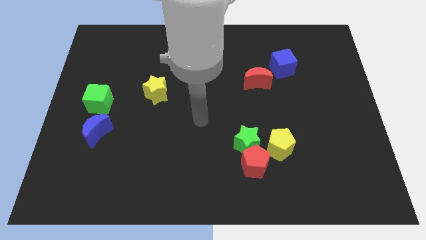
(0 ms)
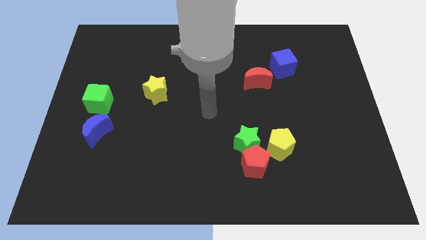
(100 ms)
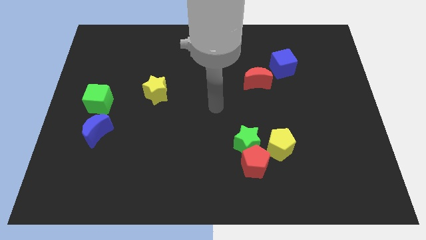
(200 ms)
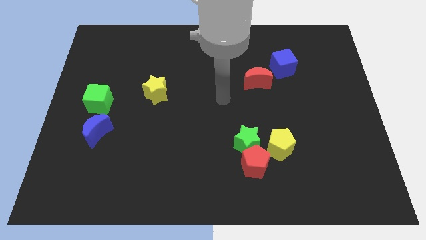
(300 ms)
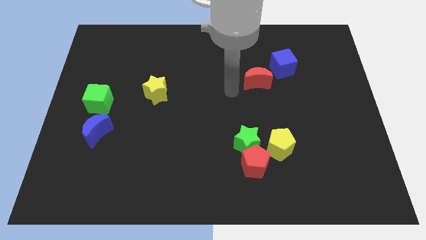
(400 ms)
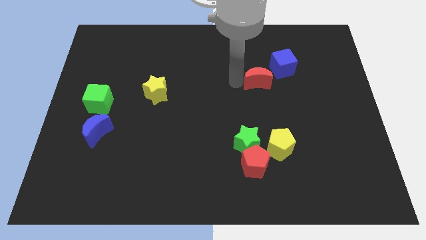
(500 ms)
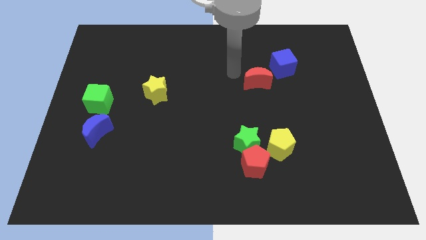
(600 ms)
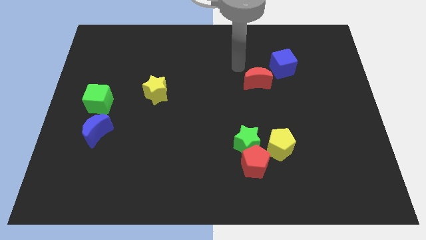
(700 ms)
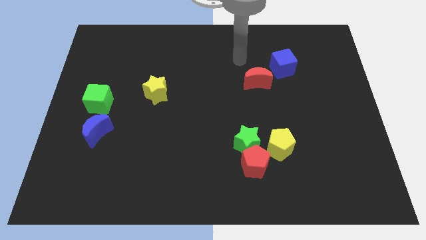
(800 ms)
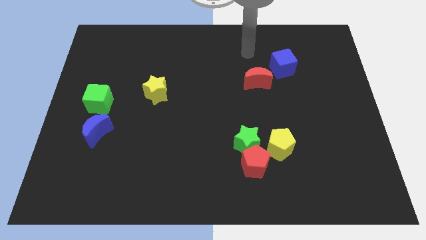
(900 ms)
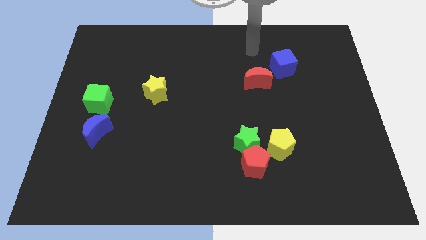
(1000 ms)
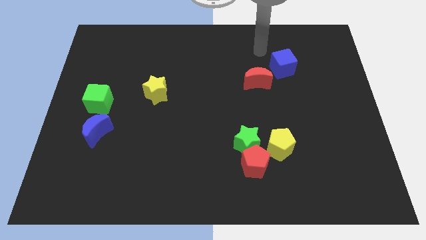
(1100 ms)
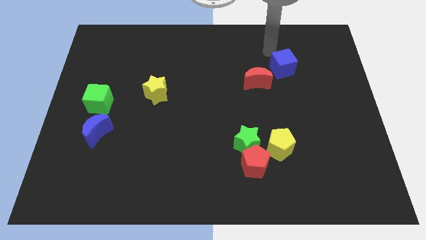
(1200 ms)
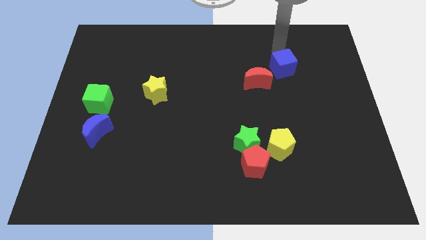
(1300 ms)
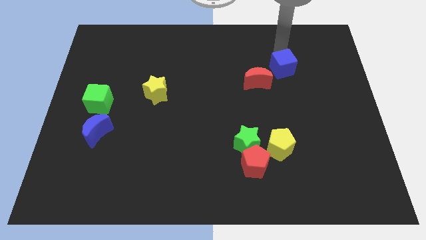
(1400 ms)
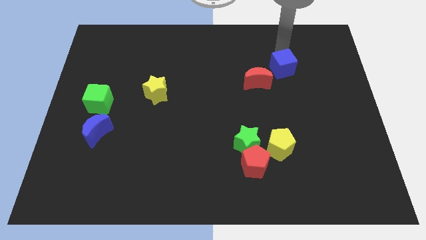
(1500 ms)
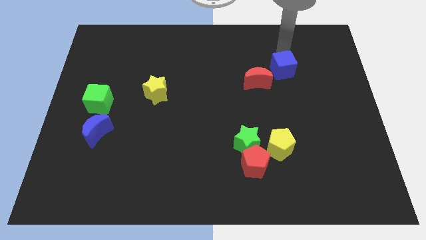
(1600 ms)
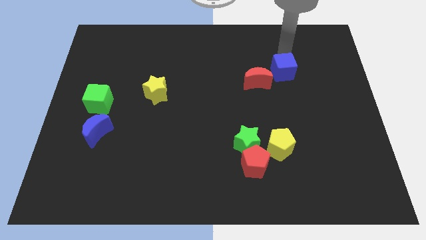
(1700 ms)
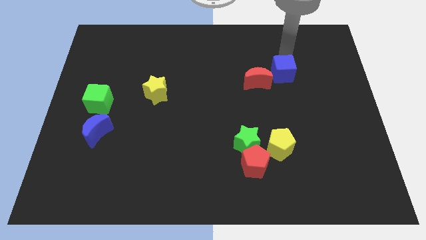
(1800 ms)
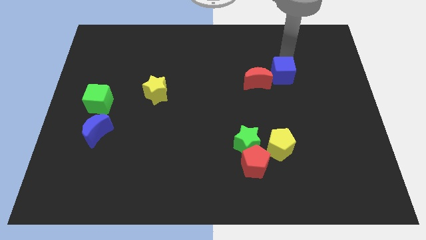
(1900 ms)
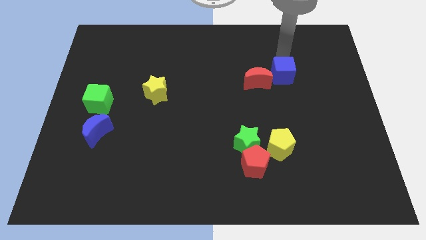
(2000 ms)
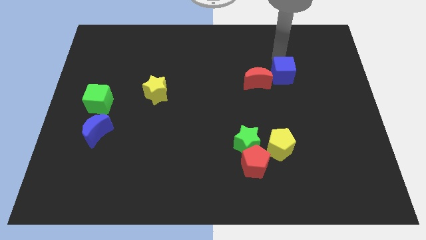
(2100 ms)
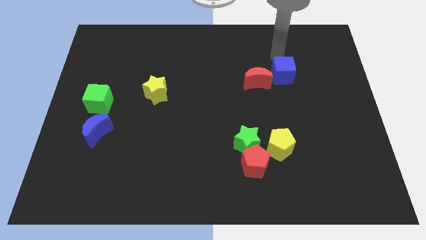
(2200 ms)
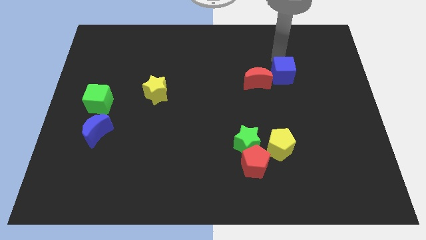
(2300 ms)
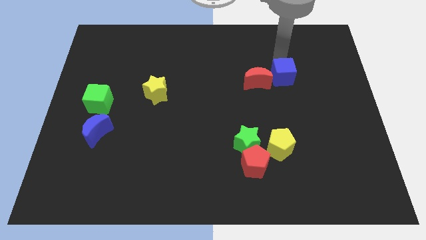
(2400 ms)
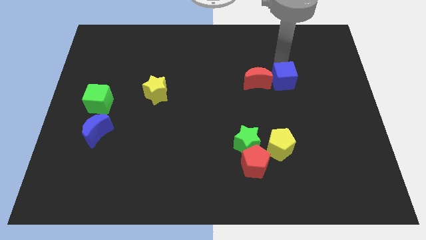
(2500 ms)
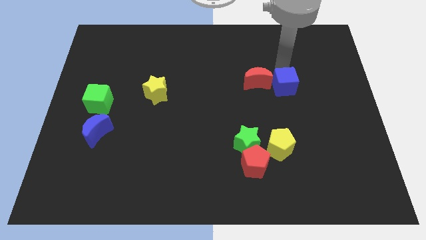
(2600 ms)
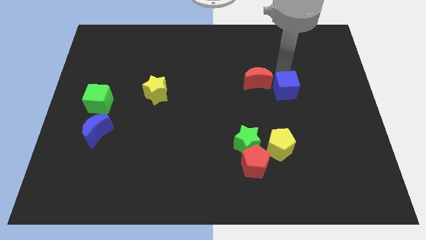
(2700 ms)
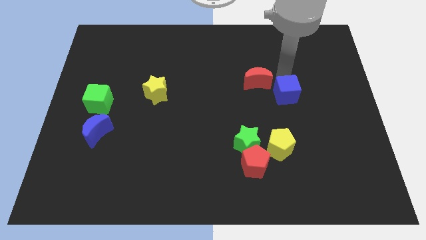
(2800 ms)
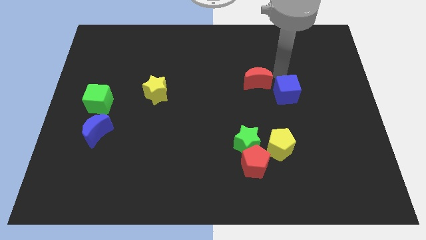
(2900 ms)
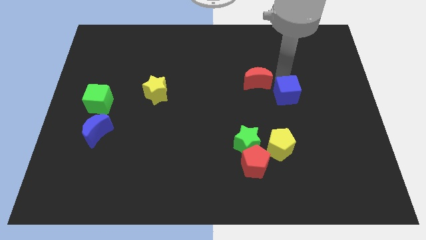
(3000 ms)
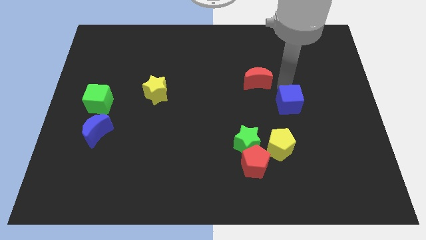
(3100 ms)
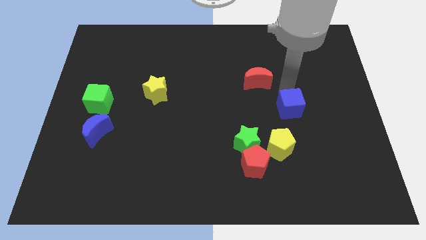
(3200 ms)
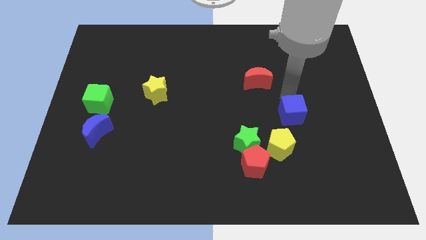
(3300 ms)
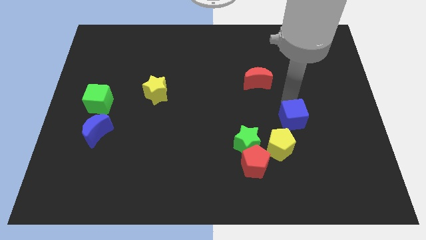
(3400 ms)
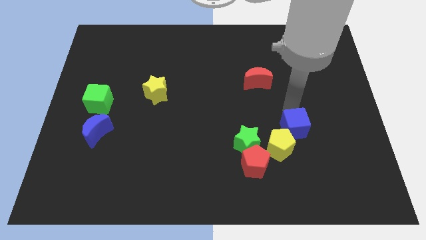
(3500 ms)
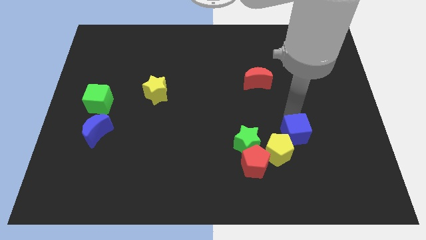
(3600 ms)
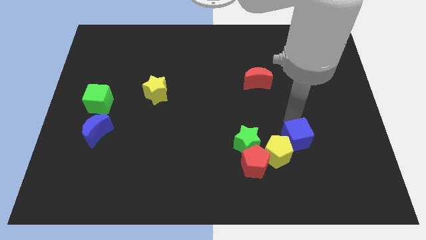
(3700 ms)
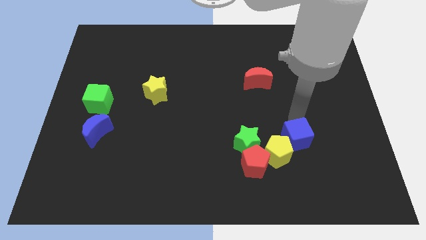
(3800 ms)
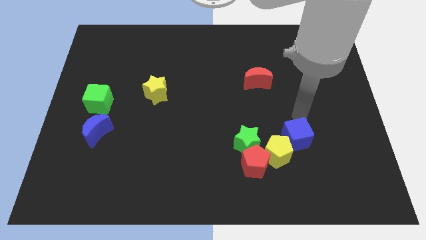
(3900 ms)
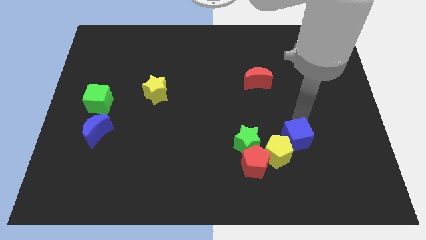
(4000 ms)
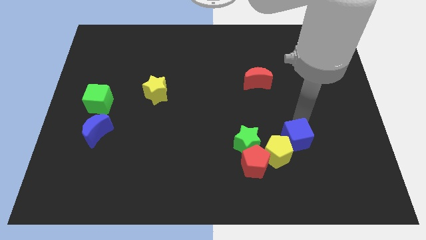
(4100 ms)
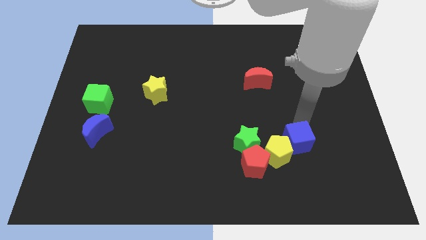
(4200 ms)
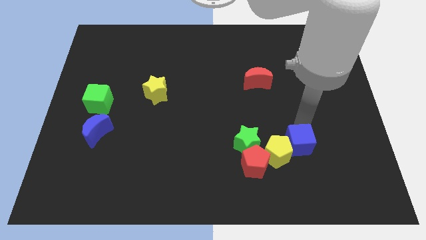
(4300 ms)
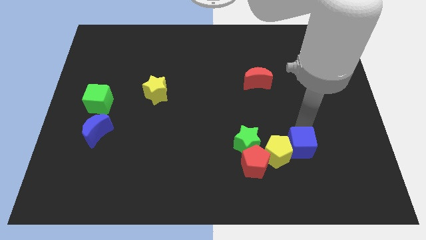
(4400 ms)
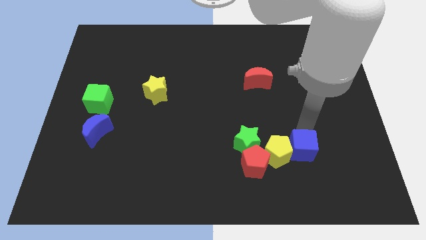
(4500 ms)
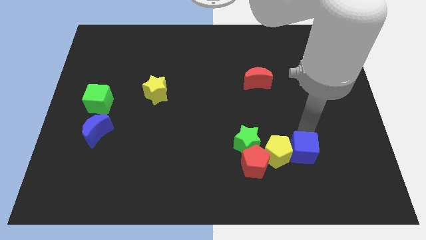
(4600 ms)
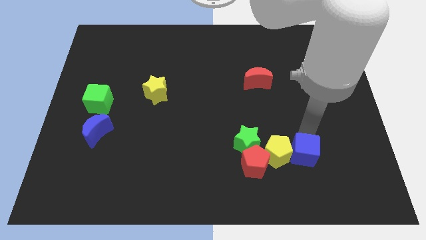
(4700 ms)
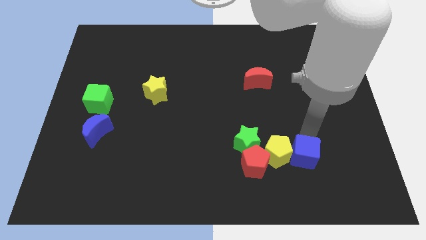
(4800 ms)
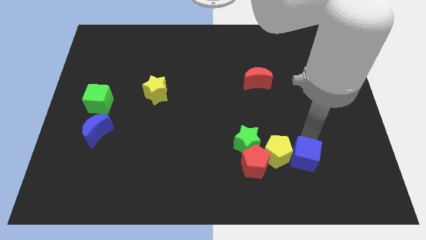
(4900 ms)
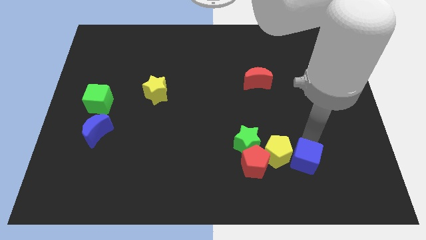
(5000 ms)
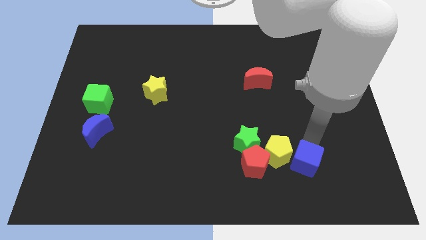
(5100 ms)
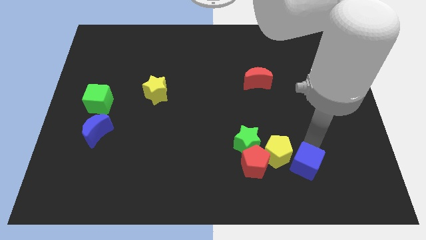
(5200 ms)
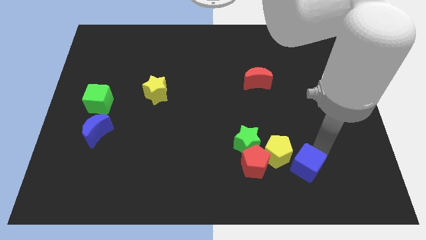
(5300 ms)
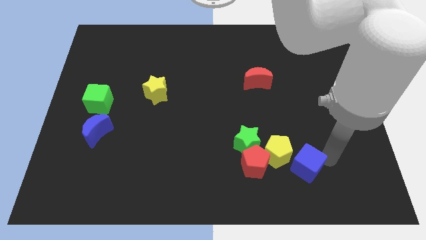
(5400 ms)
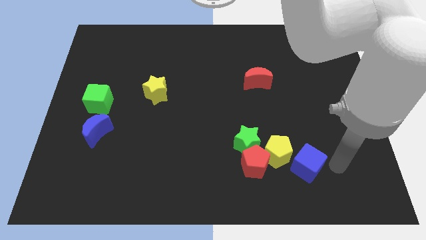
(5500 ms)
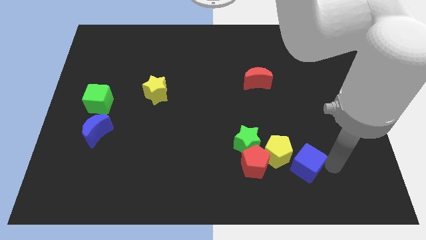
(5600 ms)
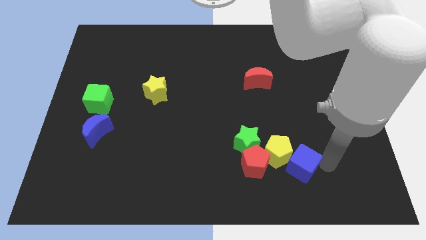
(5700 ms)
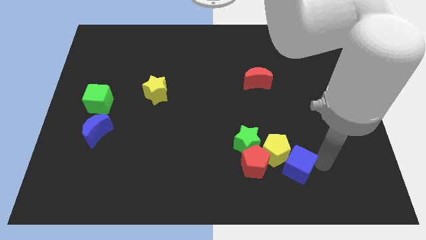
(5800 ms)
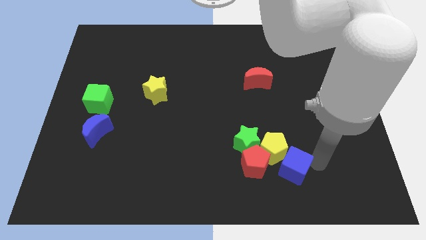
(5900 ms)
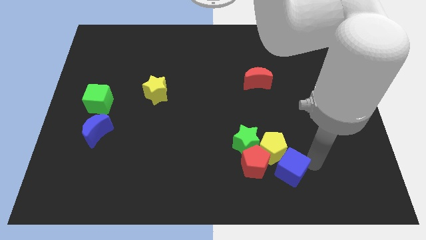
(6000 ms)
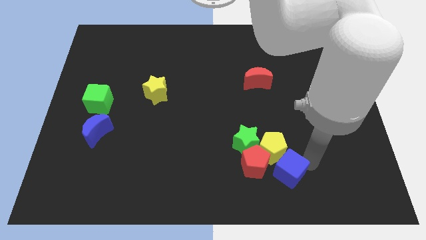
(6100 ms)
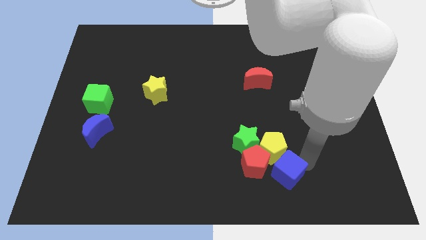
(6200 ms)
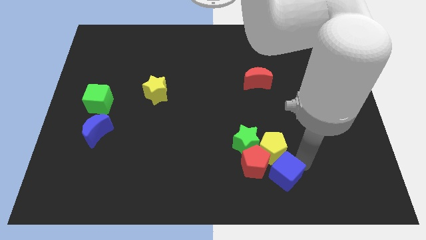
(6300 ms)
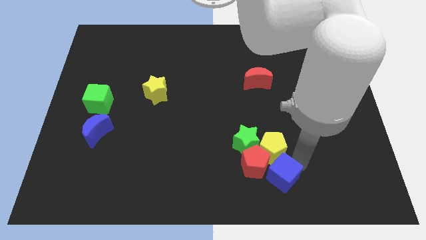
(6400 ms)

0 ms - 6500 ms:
slide the blue cube towards the red pentagon

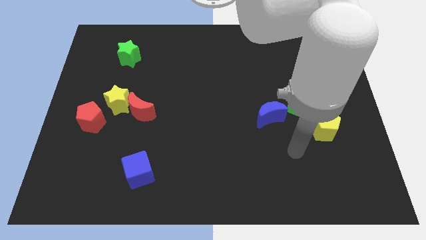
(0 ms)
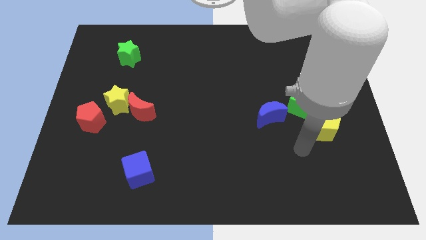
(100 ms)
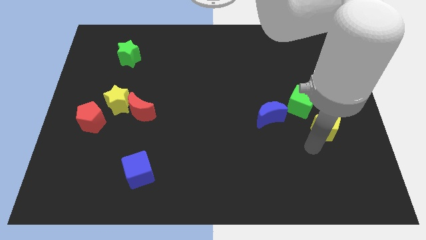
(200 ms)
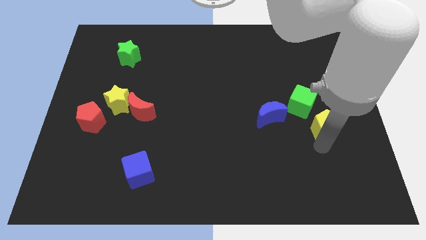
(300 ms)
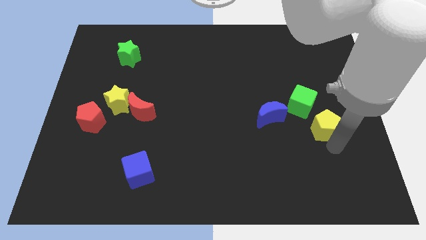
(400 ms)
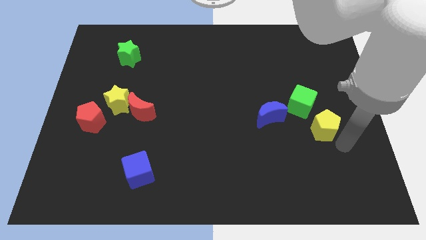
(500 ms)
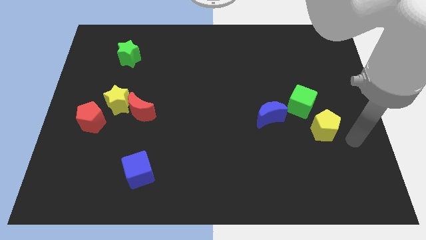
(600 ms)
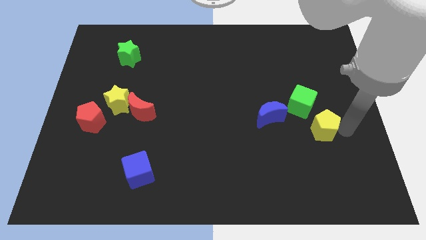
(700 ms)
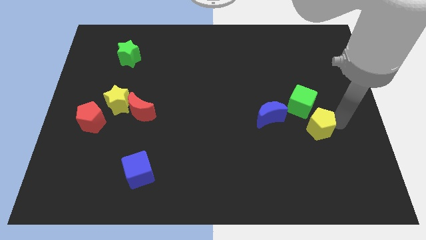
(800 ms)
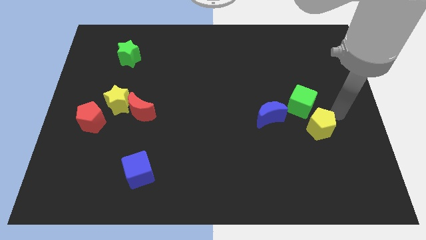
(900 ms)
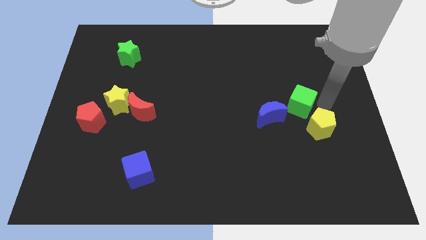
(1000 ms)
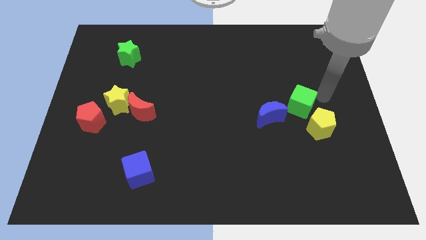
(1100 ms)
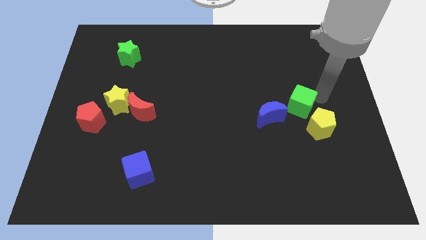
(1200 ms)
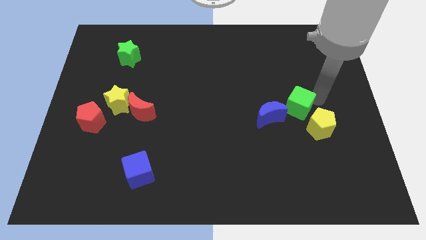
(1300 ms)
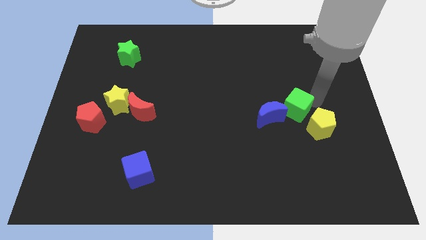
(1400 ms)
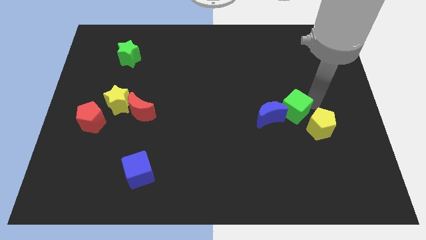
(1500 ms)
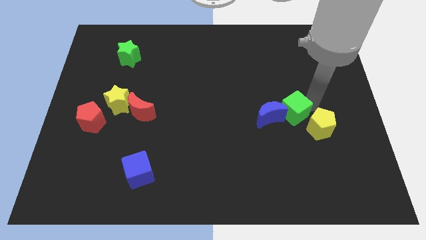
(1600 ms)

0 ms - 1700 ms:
move the green cube next to the blue moon
